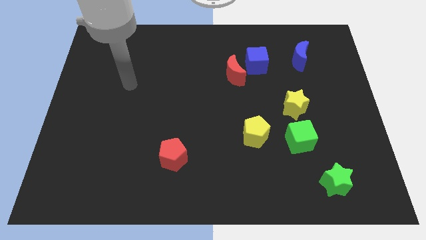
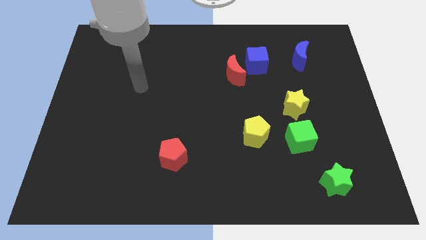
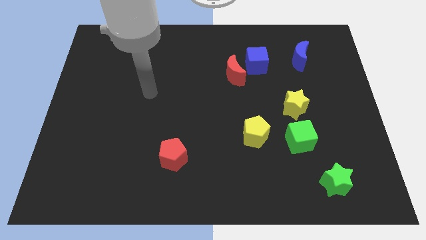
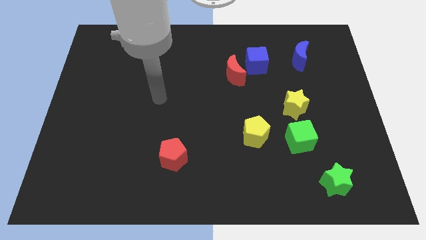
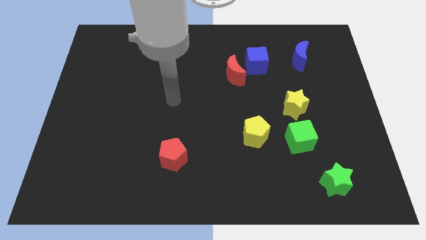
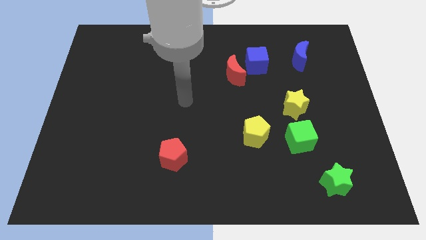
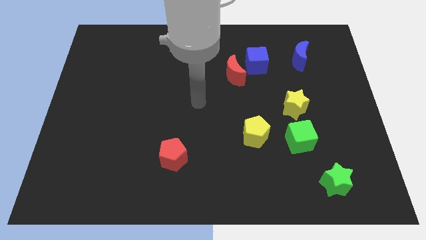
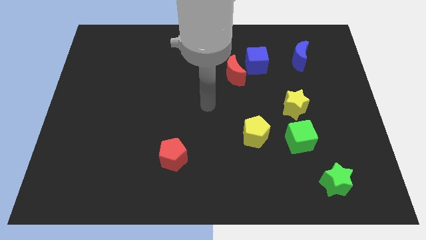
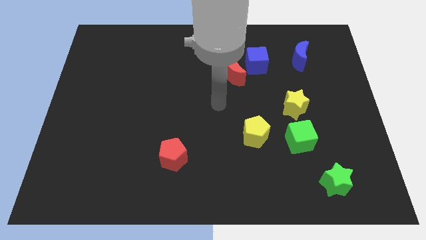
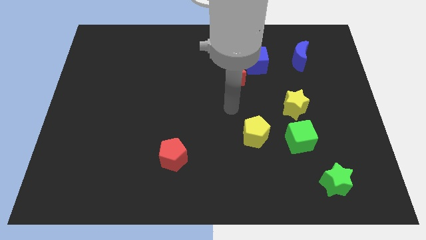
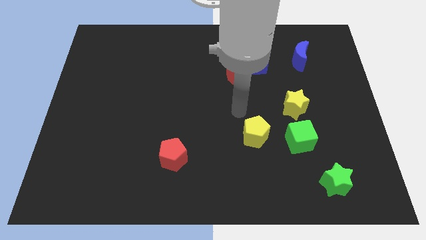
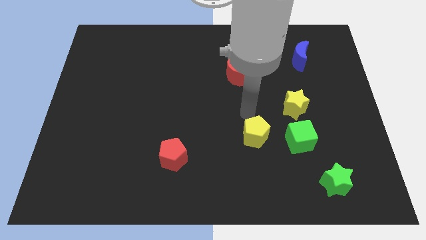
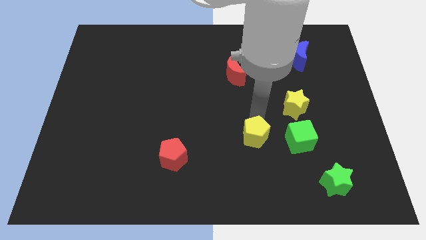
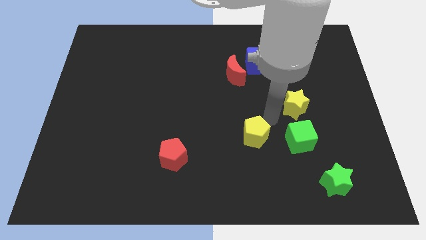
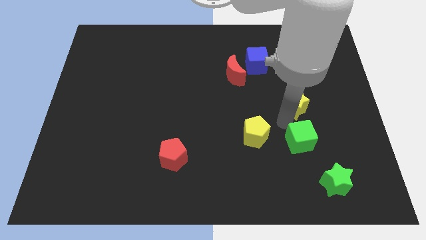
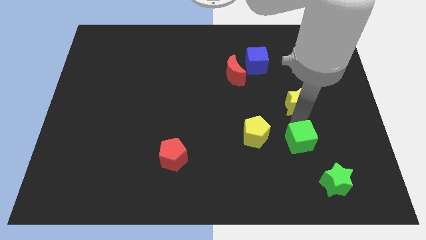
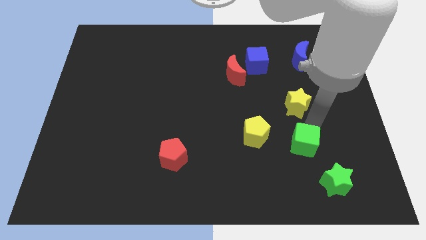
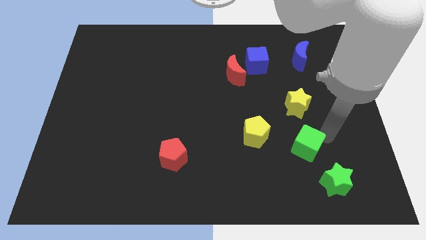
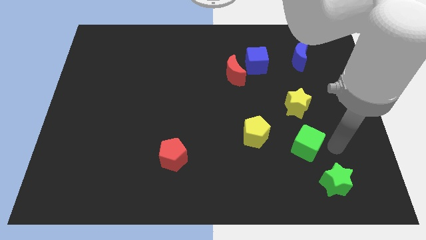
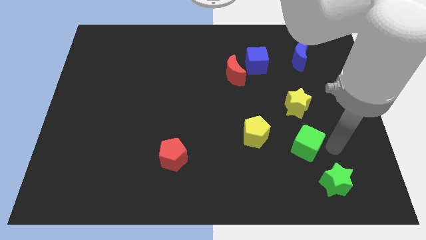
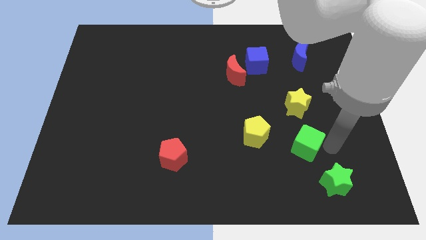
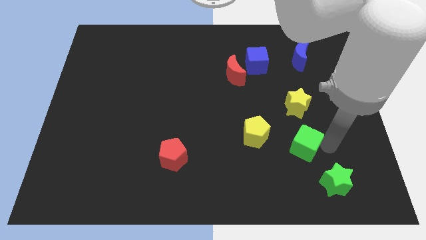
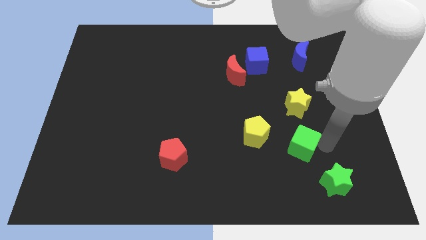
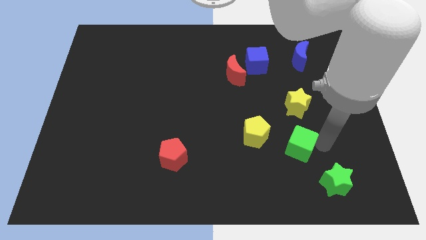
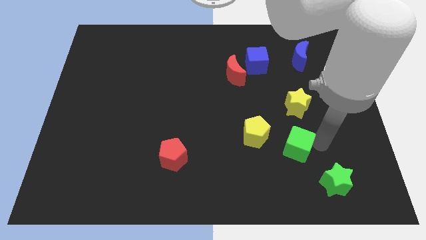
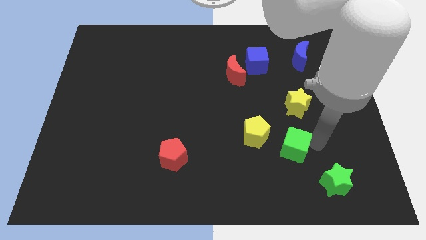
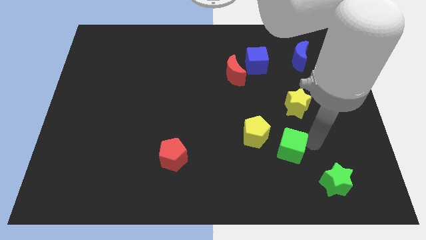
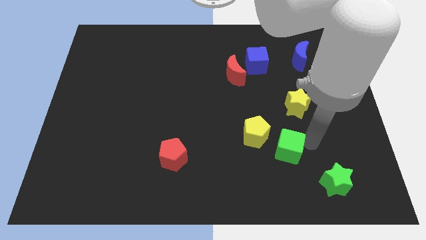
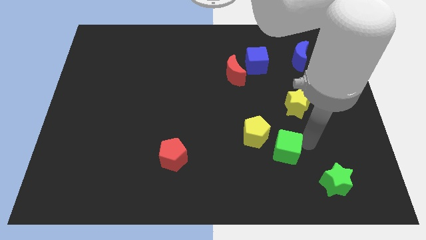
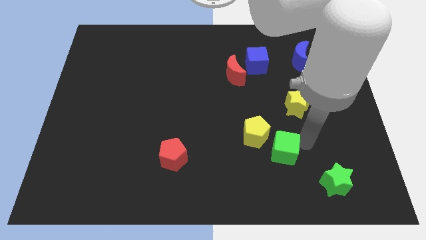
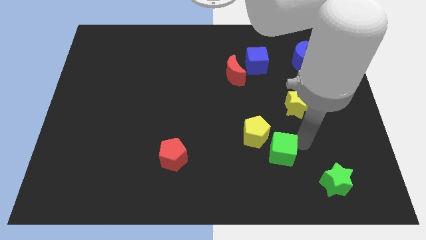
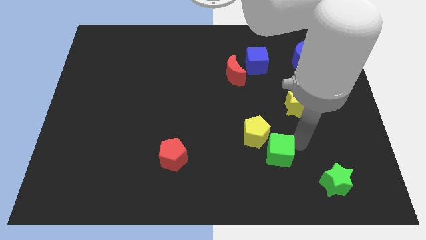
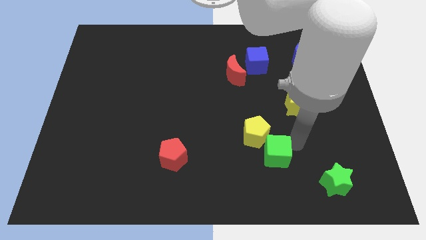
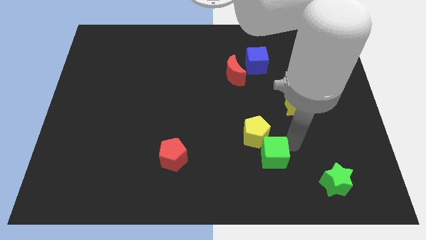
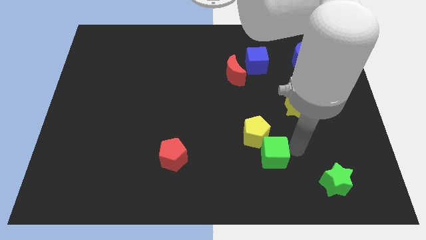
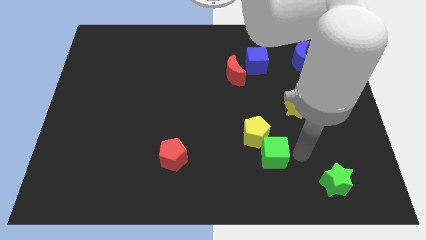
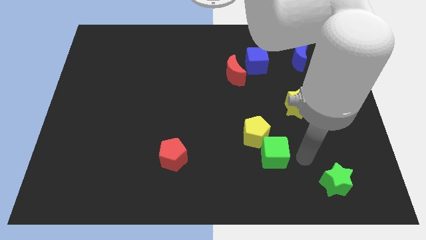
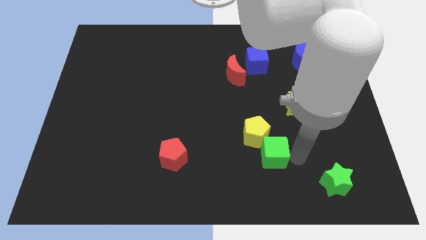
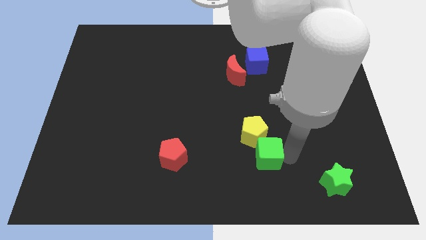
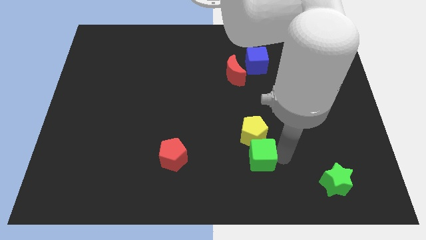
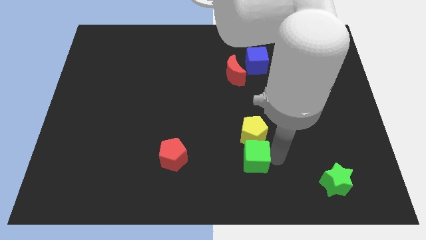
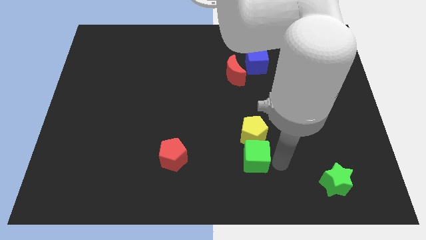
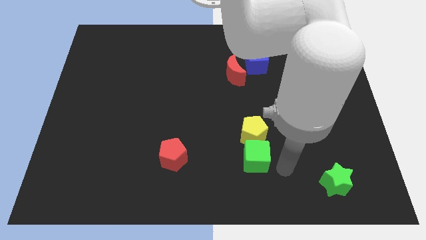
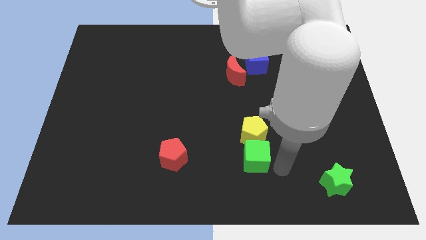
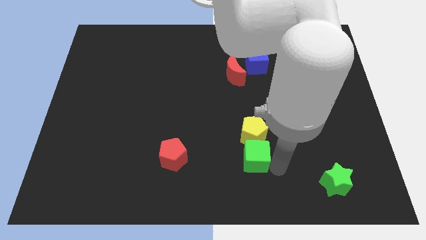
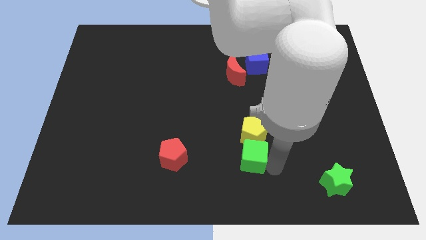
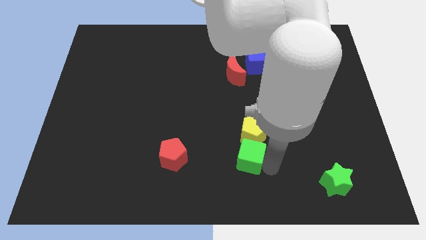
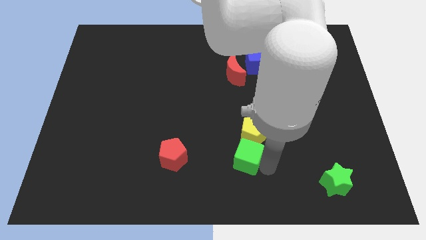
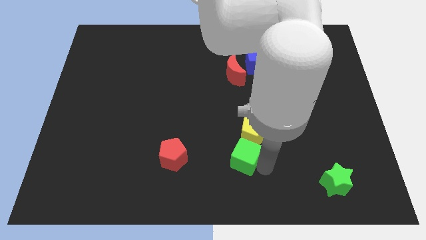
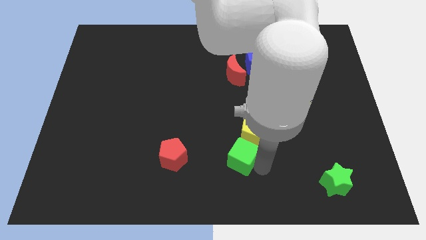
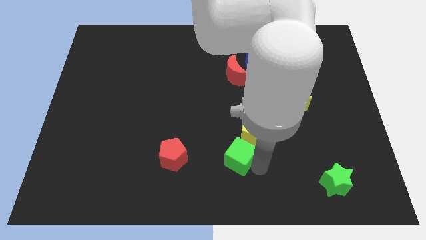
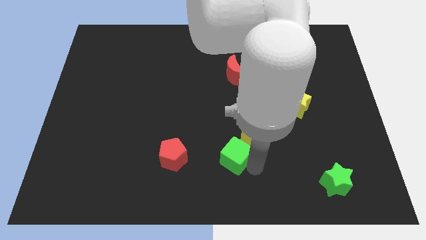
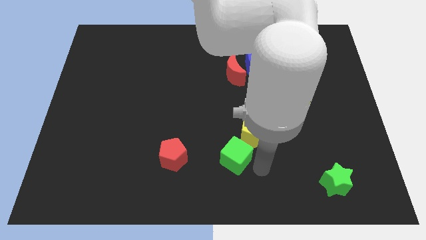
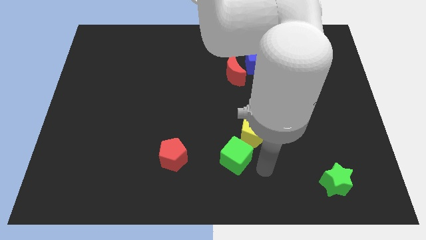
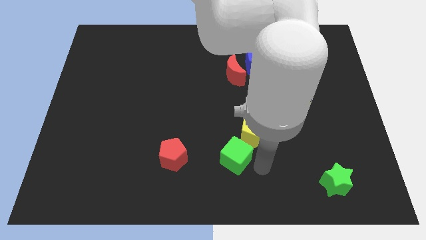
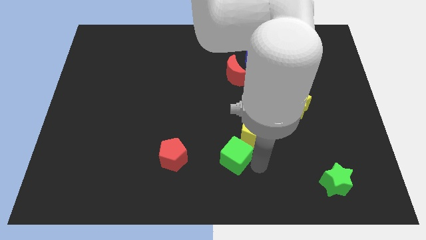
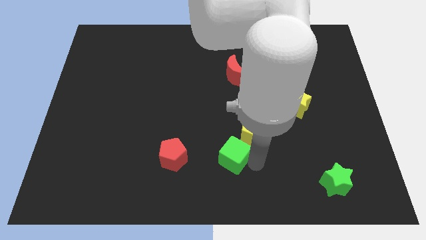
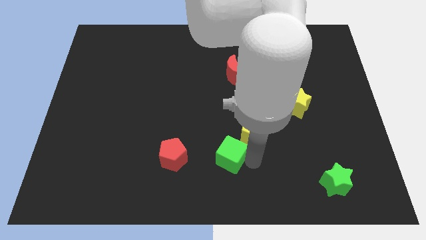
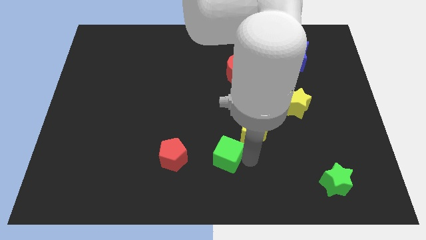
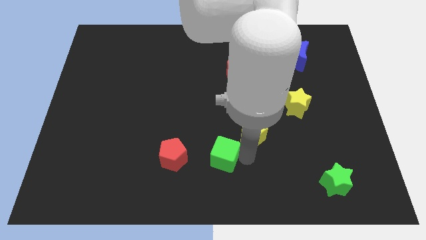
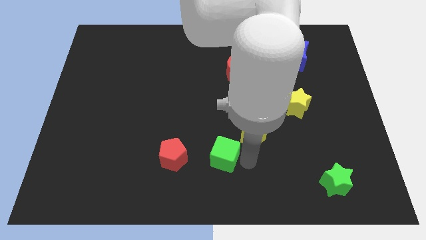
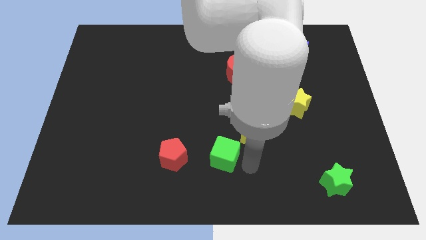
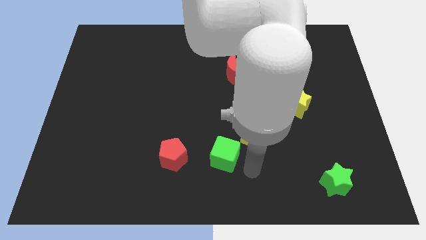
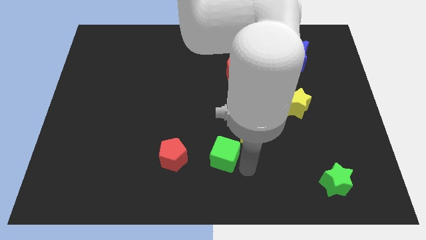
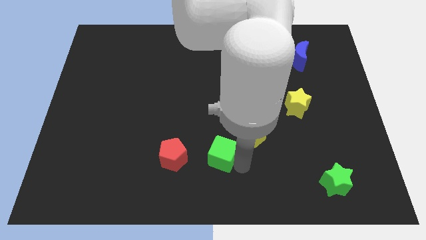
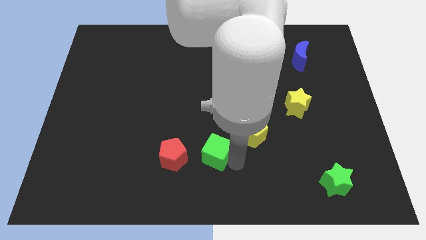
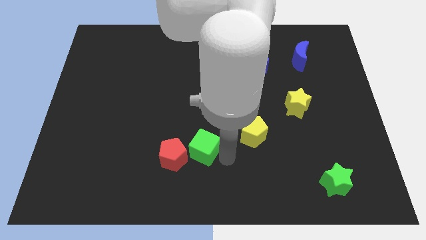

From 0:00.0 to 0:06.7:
move the green cube left

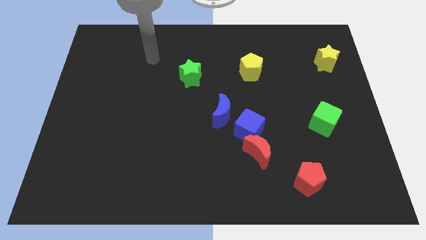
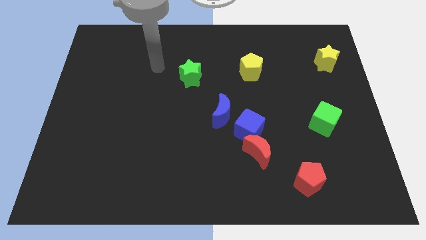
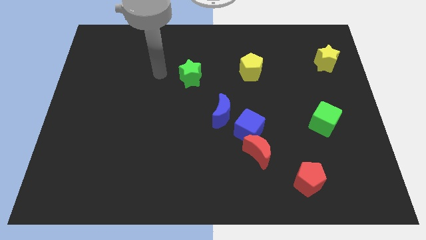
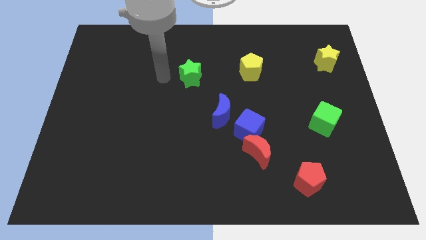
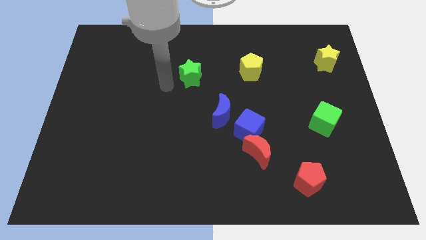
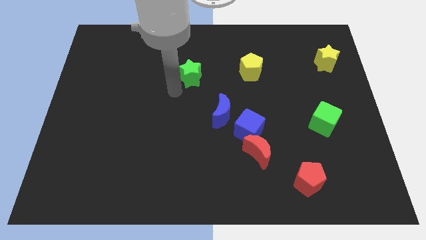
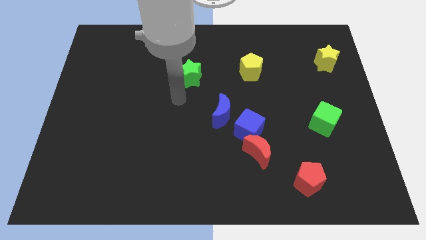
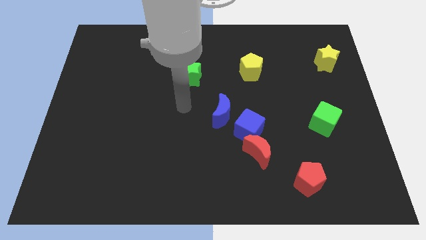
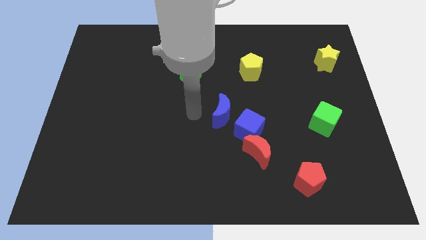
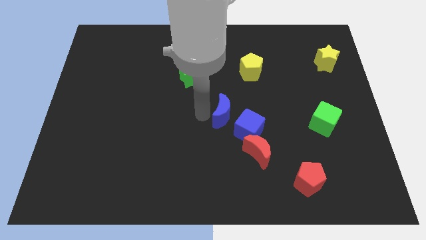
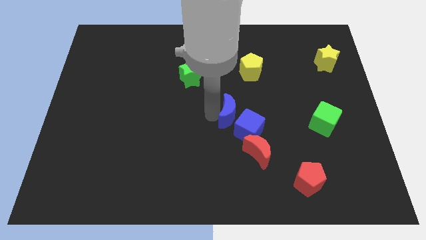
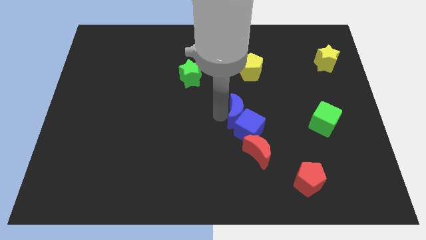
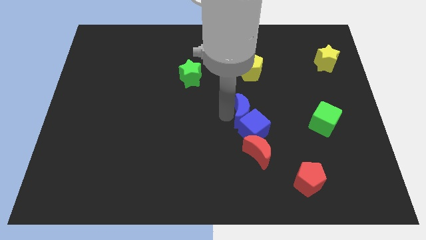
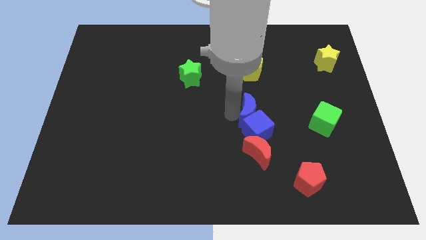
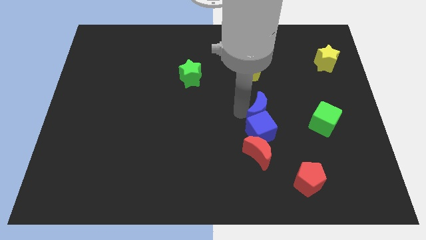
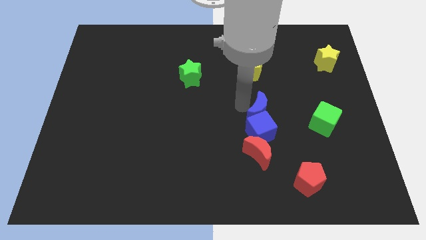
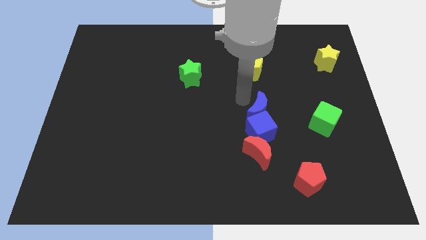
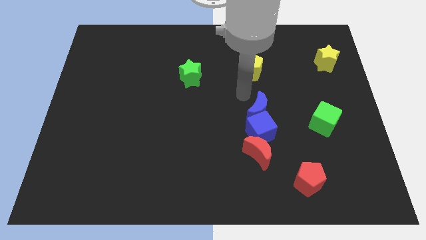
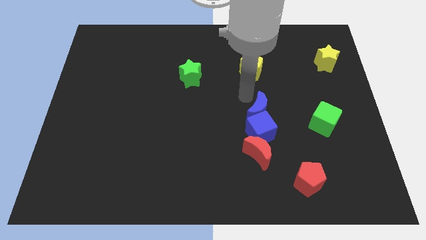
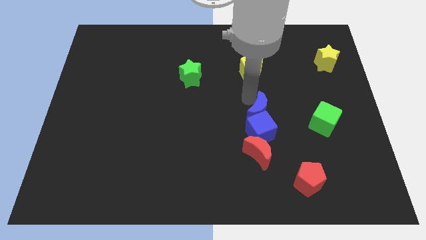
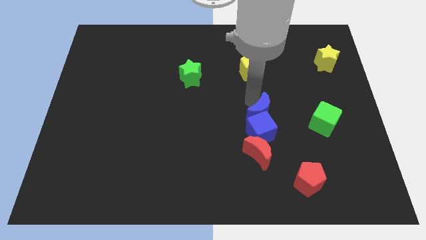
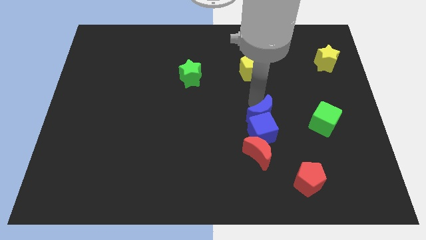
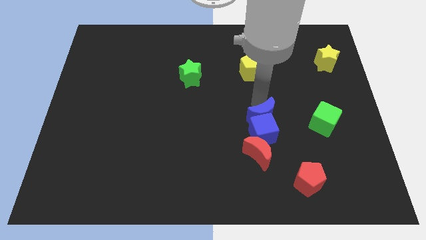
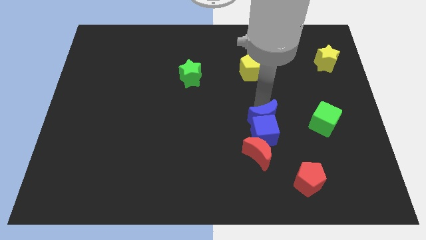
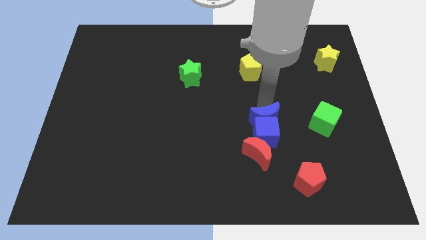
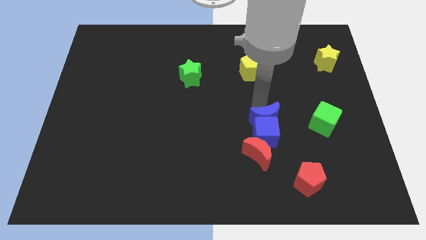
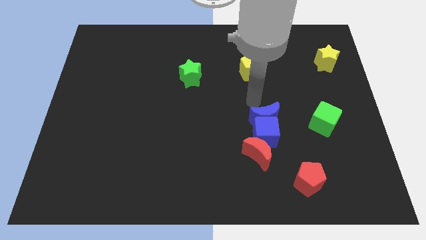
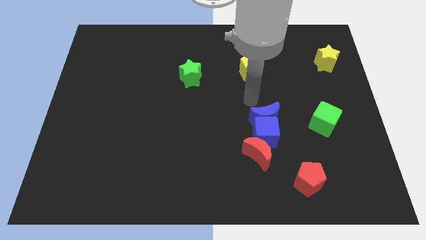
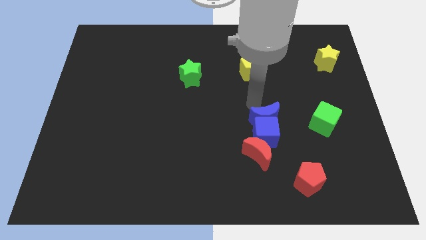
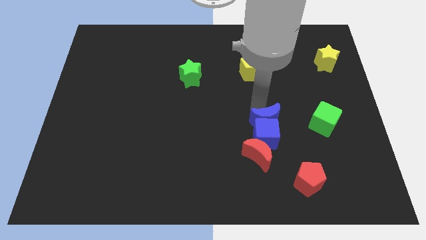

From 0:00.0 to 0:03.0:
slide the blue moon downwards and right diagonally a bit
